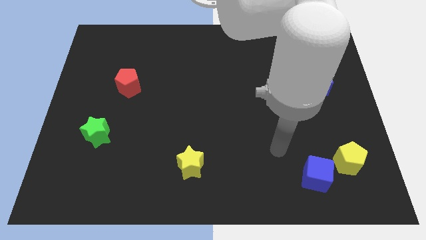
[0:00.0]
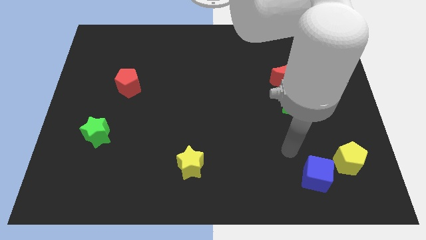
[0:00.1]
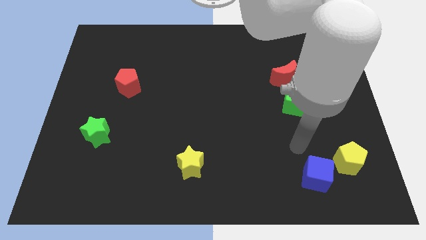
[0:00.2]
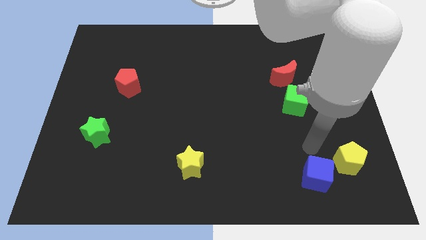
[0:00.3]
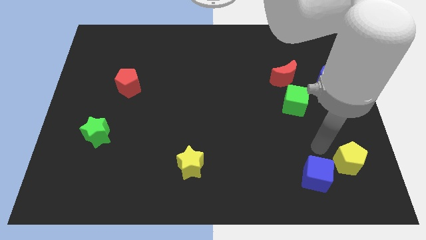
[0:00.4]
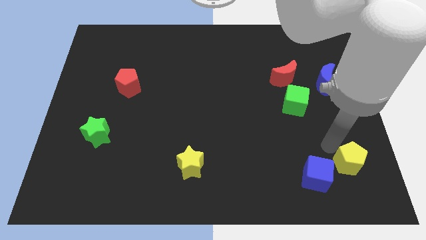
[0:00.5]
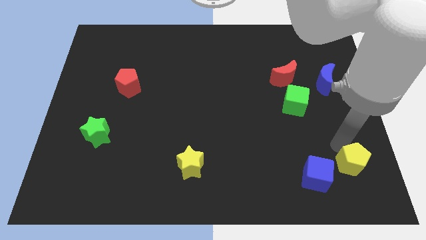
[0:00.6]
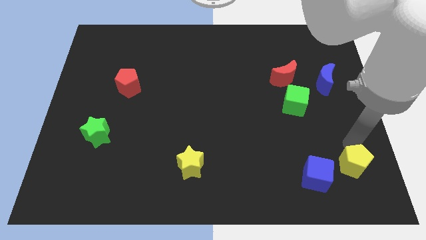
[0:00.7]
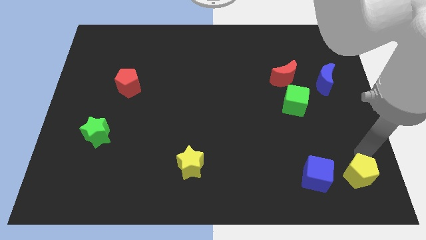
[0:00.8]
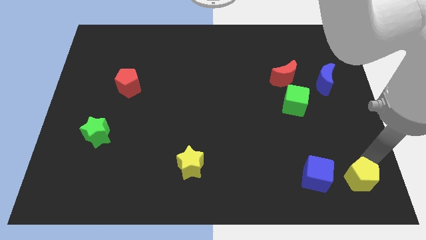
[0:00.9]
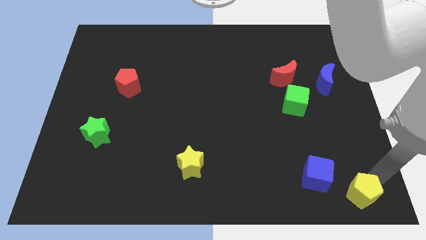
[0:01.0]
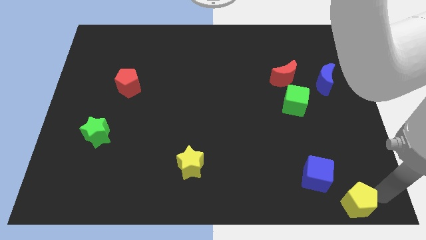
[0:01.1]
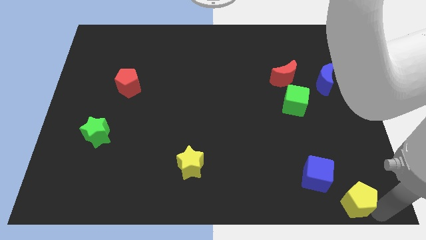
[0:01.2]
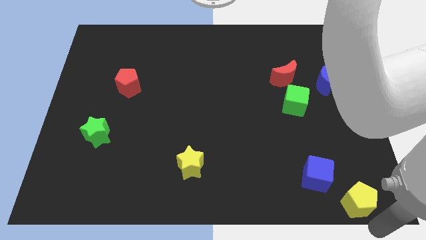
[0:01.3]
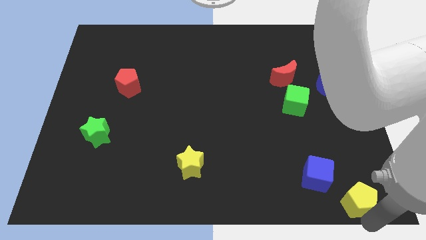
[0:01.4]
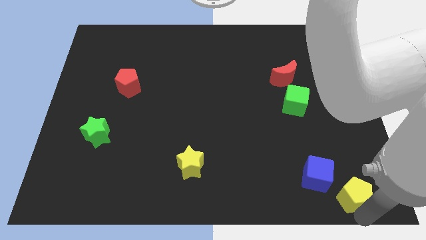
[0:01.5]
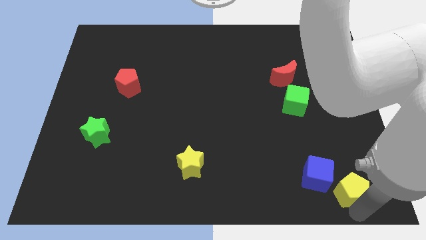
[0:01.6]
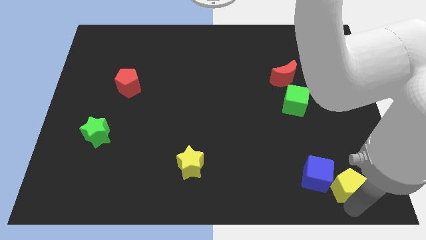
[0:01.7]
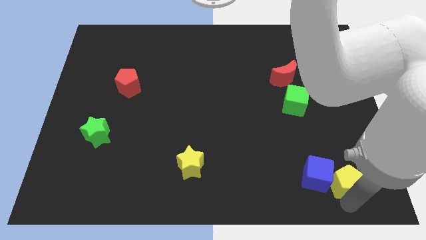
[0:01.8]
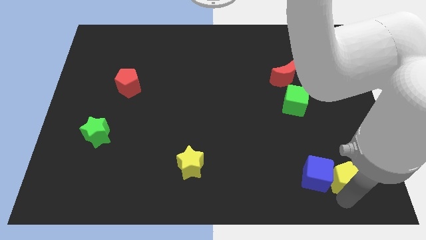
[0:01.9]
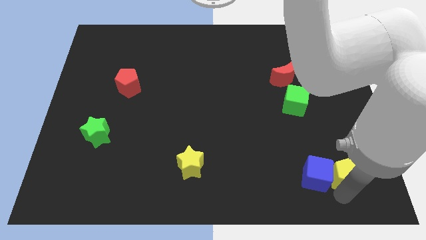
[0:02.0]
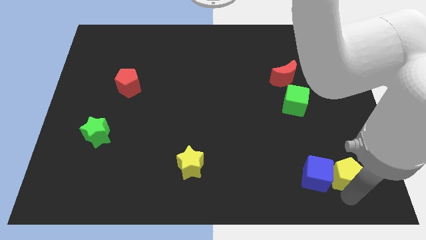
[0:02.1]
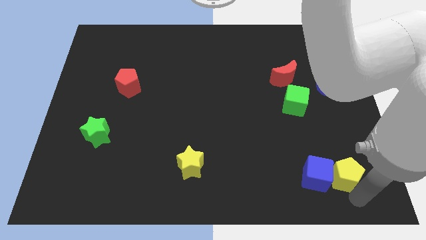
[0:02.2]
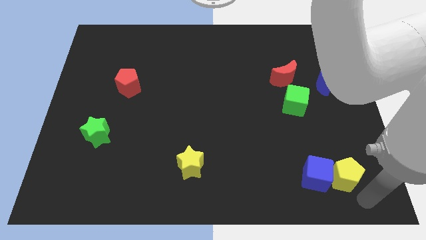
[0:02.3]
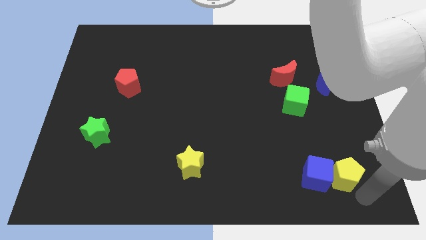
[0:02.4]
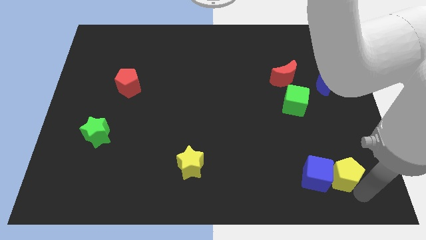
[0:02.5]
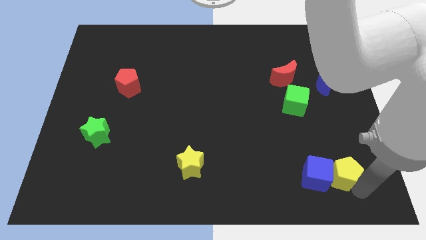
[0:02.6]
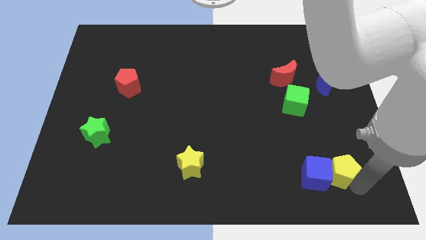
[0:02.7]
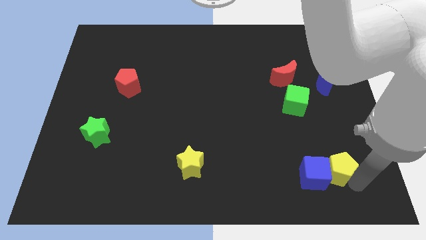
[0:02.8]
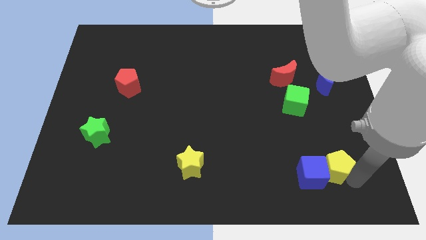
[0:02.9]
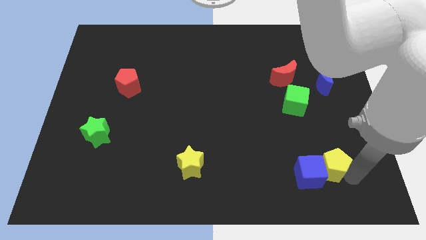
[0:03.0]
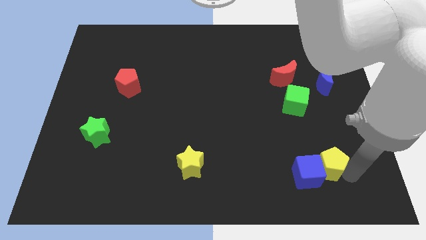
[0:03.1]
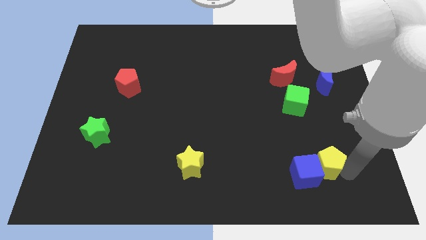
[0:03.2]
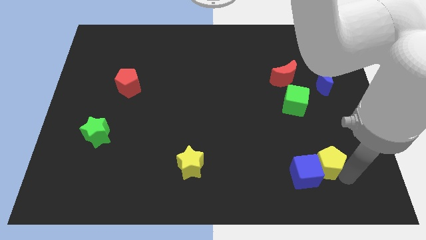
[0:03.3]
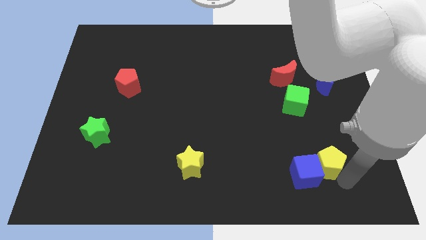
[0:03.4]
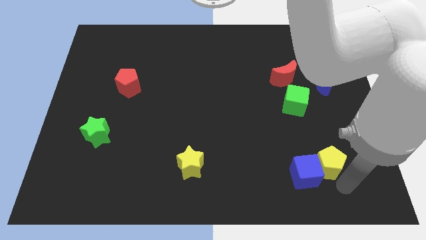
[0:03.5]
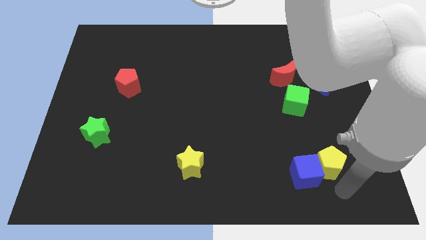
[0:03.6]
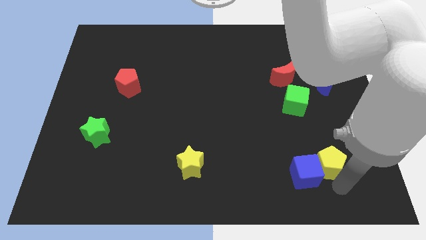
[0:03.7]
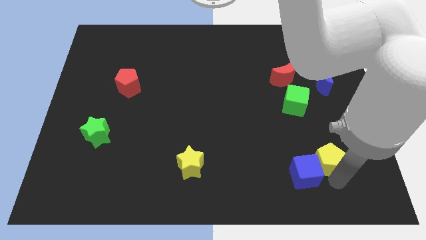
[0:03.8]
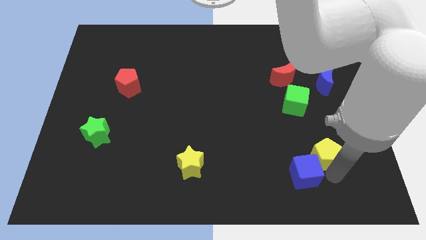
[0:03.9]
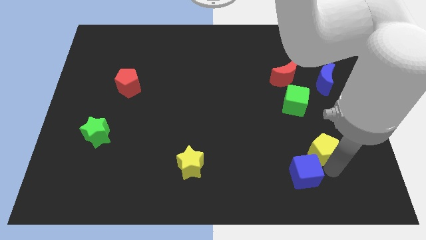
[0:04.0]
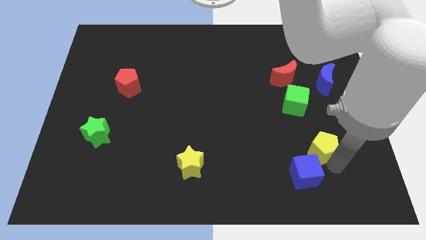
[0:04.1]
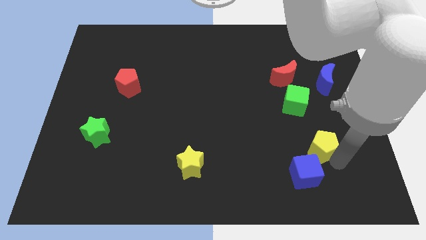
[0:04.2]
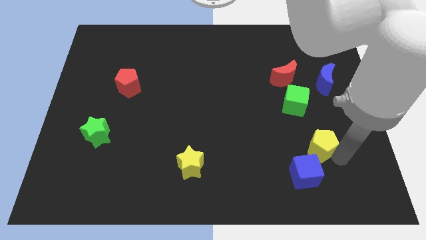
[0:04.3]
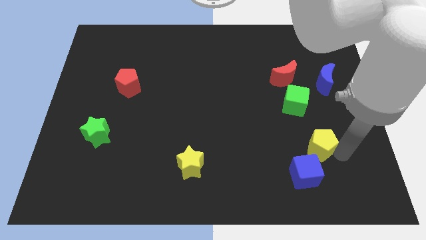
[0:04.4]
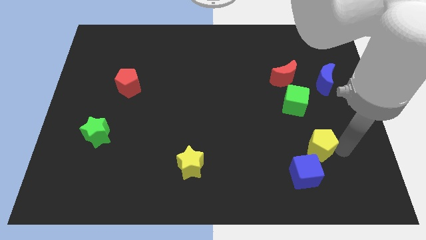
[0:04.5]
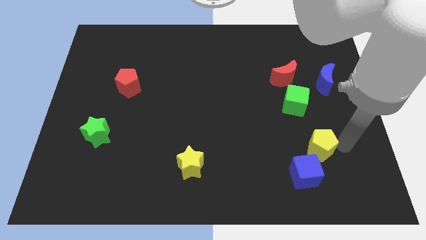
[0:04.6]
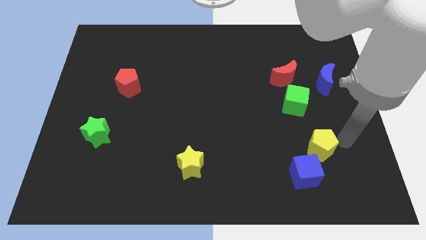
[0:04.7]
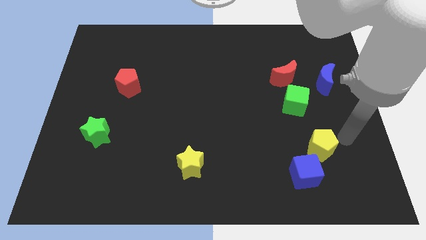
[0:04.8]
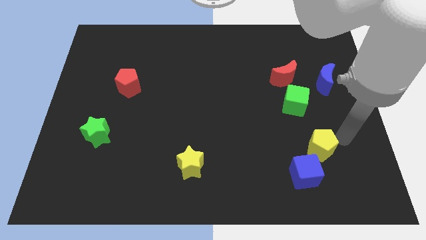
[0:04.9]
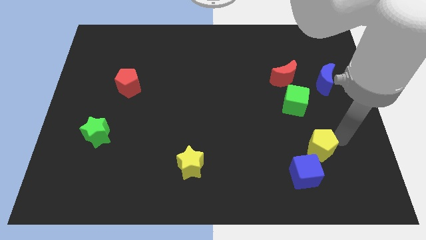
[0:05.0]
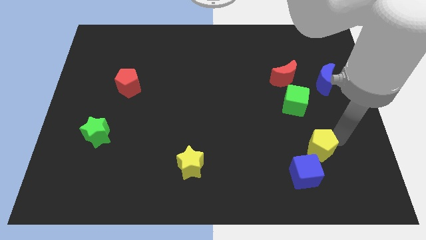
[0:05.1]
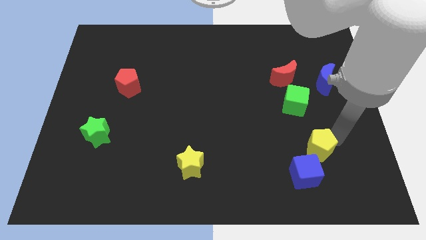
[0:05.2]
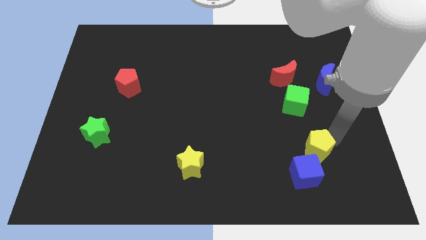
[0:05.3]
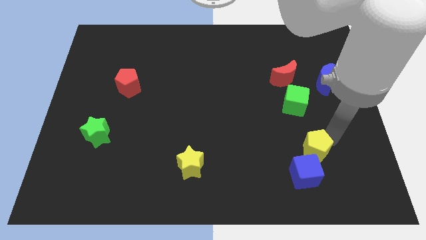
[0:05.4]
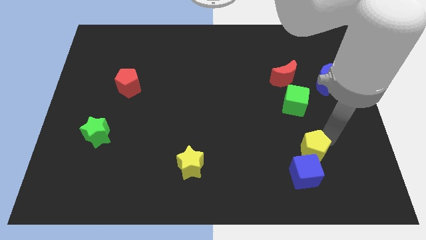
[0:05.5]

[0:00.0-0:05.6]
push the yellow pentagon slightly to the left

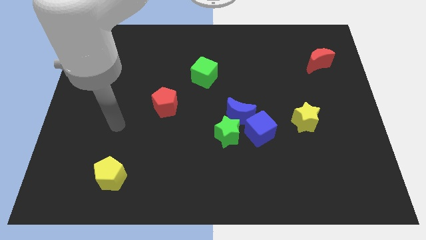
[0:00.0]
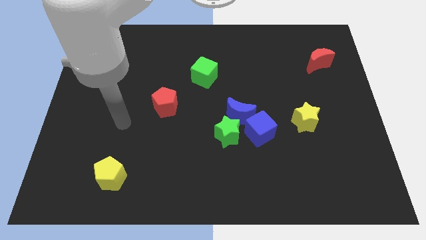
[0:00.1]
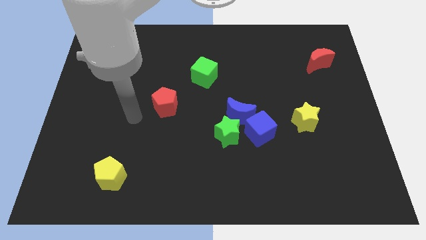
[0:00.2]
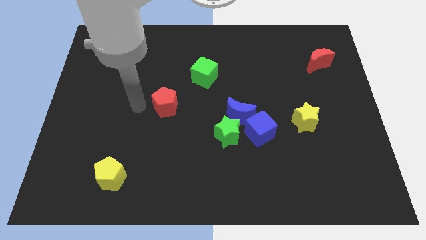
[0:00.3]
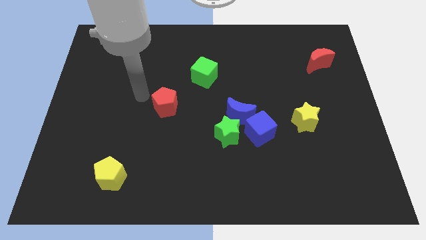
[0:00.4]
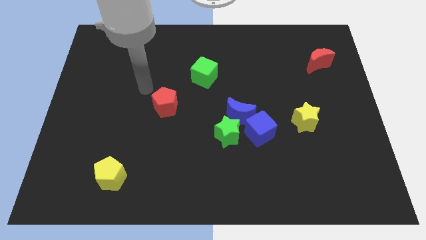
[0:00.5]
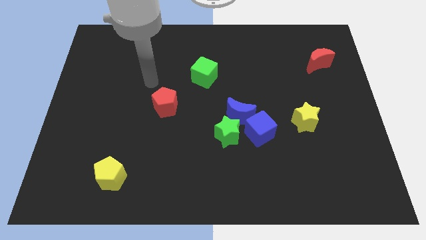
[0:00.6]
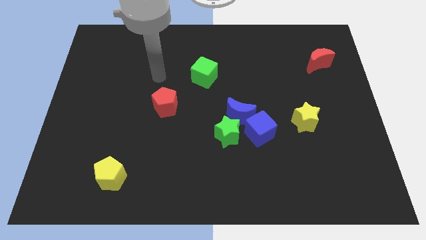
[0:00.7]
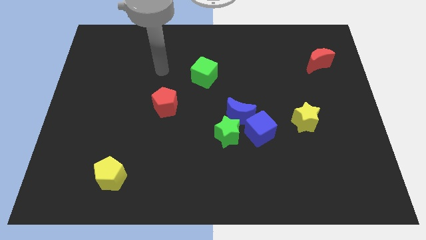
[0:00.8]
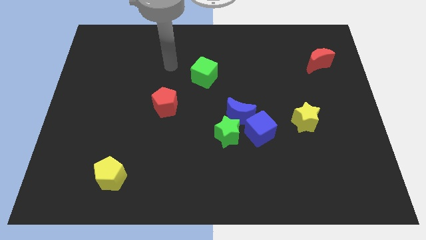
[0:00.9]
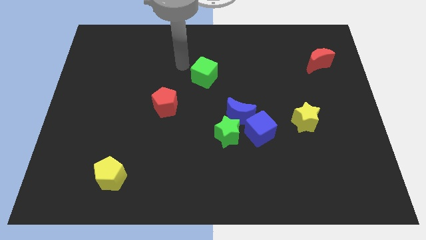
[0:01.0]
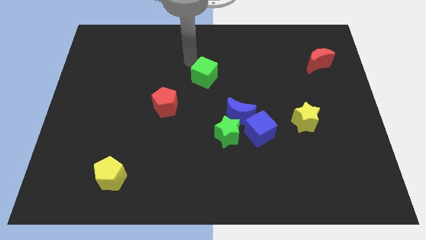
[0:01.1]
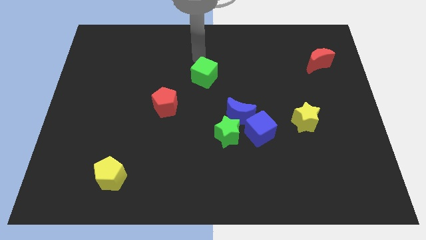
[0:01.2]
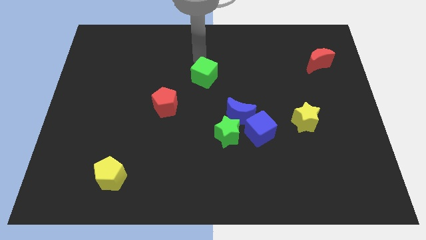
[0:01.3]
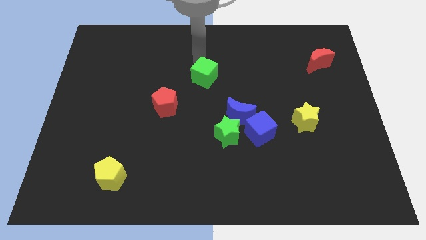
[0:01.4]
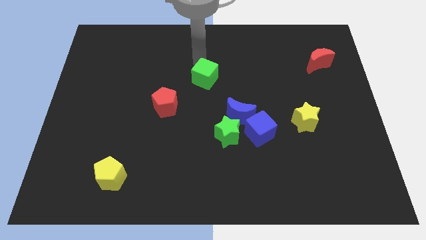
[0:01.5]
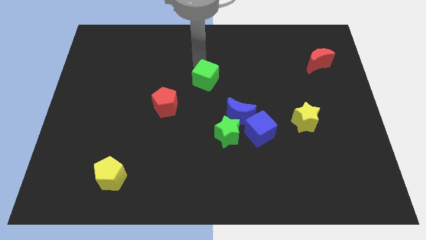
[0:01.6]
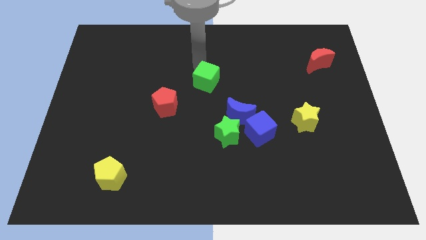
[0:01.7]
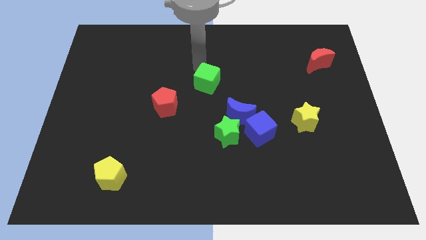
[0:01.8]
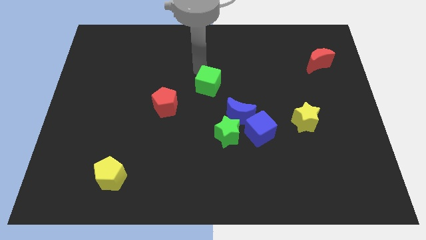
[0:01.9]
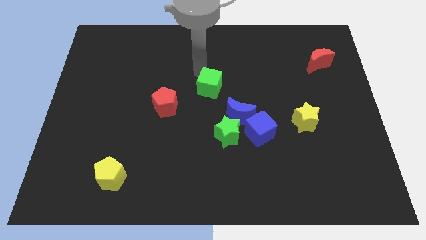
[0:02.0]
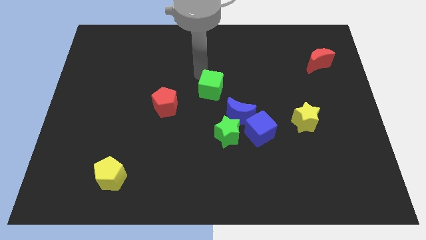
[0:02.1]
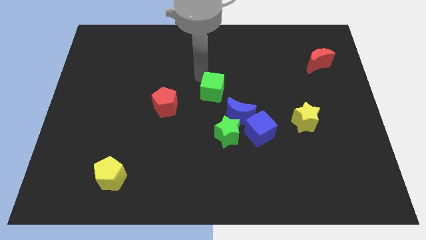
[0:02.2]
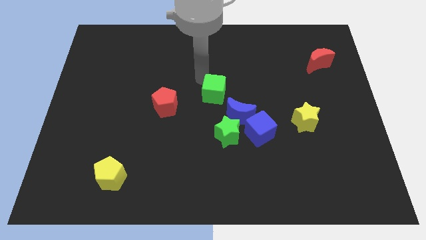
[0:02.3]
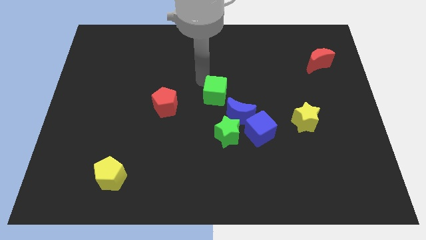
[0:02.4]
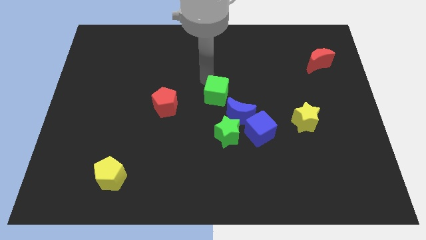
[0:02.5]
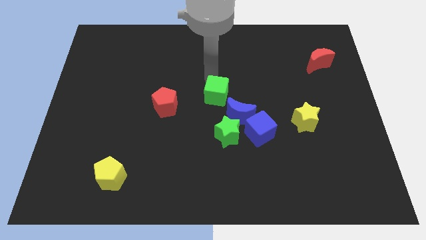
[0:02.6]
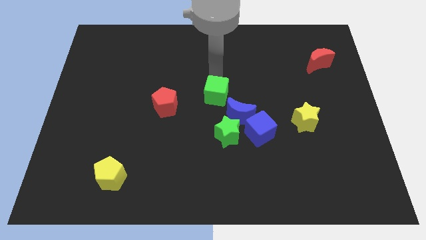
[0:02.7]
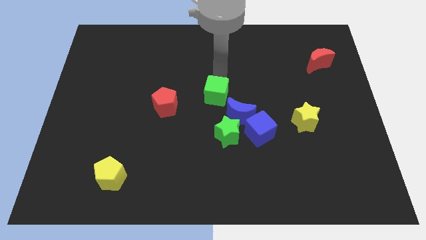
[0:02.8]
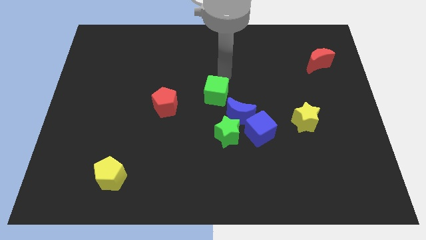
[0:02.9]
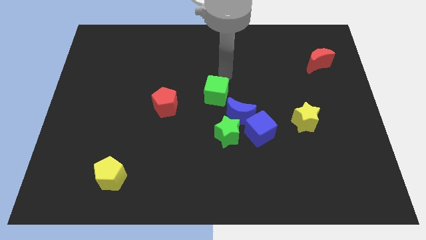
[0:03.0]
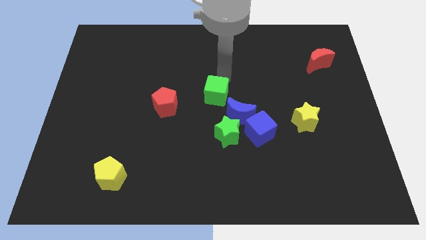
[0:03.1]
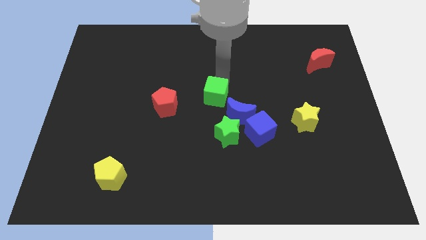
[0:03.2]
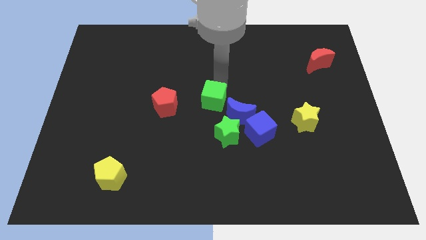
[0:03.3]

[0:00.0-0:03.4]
slide the green cube a little down
